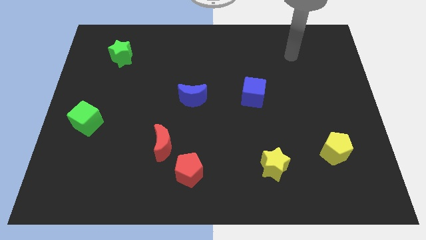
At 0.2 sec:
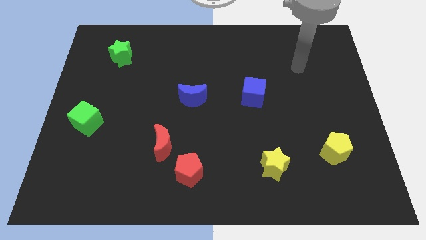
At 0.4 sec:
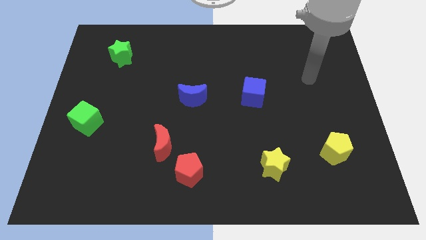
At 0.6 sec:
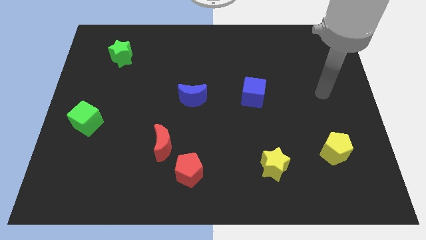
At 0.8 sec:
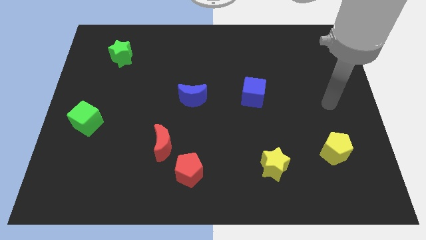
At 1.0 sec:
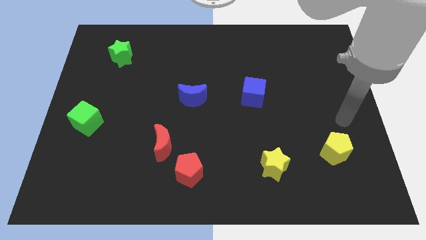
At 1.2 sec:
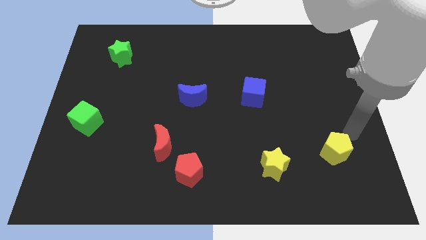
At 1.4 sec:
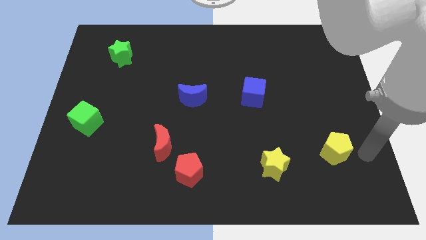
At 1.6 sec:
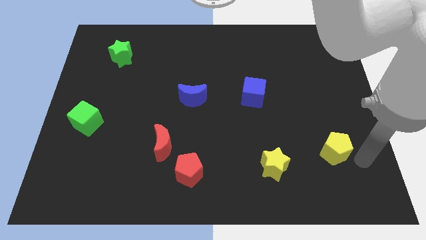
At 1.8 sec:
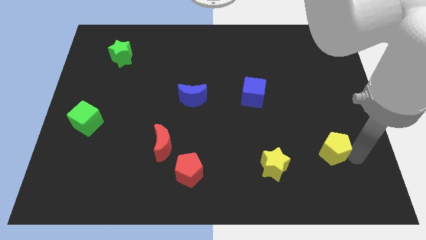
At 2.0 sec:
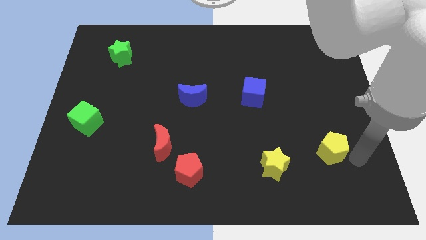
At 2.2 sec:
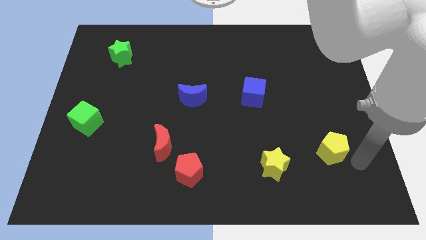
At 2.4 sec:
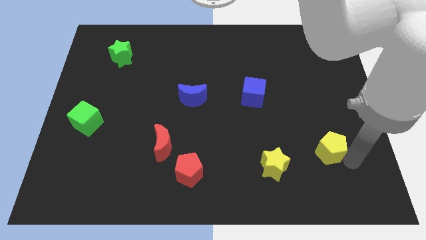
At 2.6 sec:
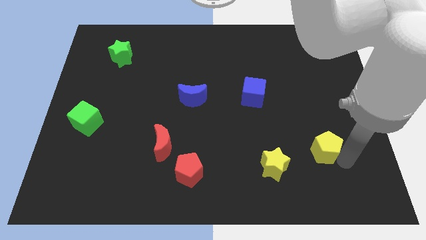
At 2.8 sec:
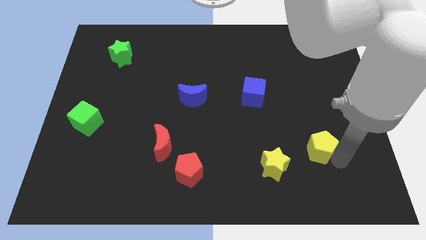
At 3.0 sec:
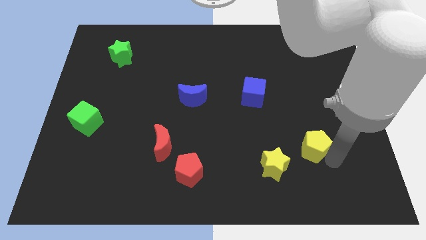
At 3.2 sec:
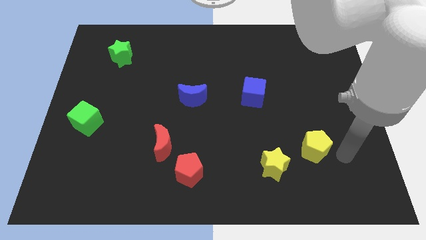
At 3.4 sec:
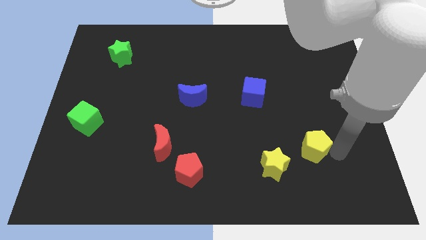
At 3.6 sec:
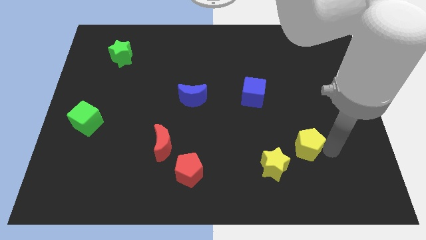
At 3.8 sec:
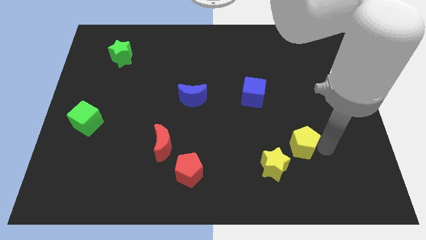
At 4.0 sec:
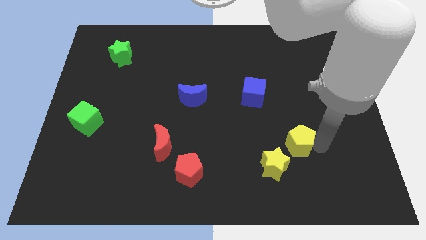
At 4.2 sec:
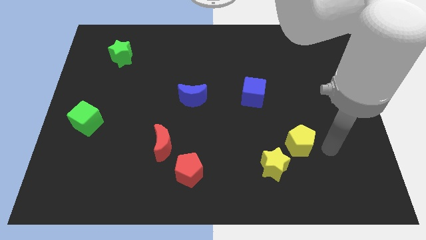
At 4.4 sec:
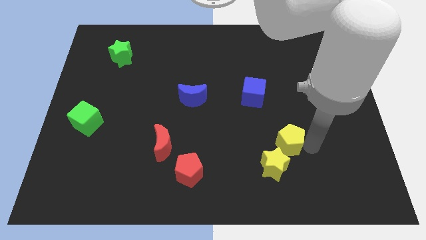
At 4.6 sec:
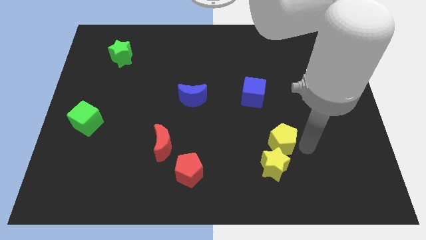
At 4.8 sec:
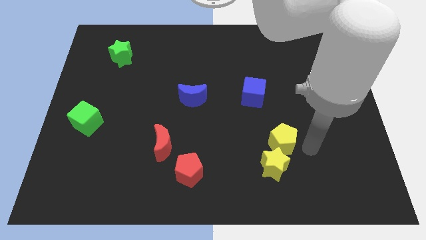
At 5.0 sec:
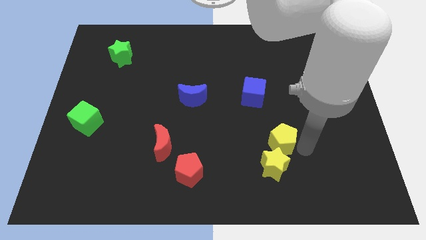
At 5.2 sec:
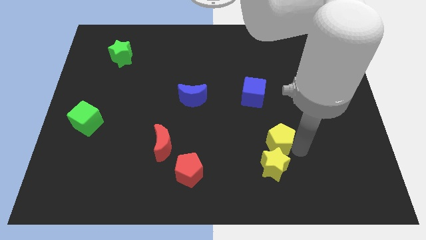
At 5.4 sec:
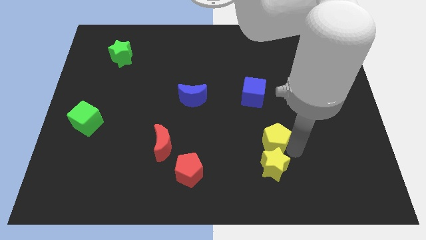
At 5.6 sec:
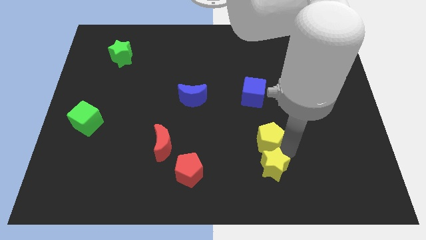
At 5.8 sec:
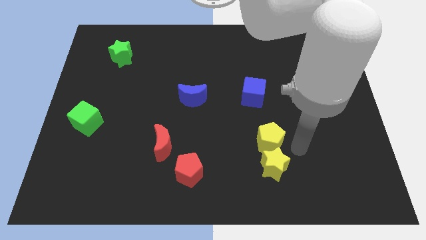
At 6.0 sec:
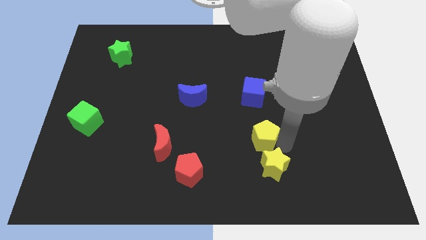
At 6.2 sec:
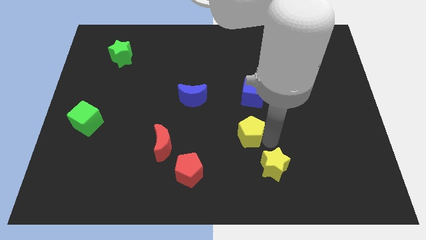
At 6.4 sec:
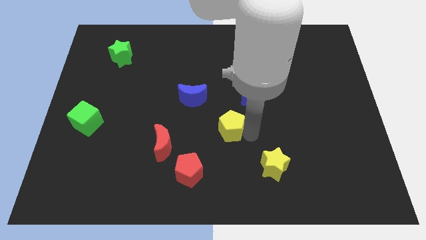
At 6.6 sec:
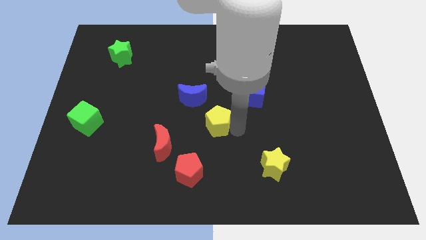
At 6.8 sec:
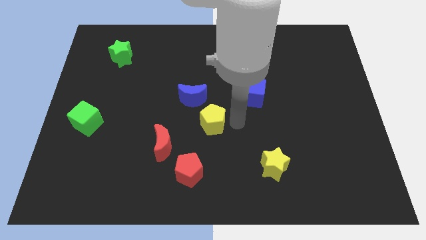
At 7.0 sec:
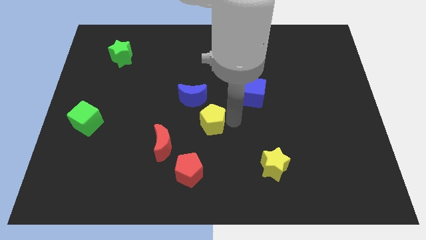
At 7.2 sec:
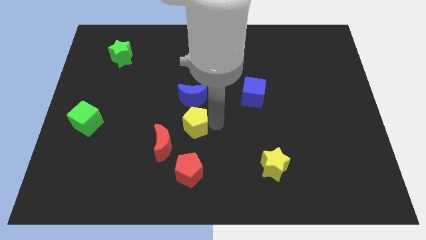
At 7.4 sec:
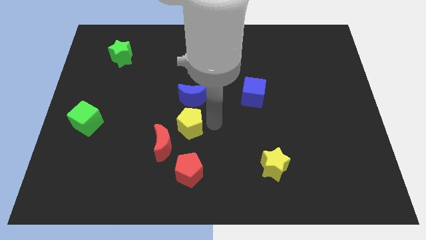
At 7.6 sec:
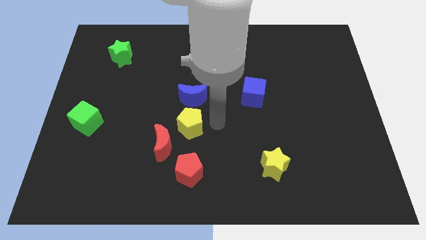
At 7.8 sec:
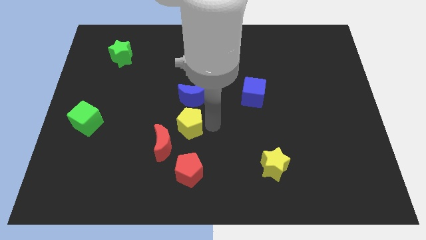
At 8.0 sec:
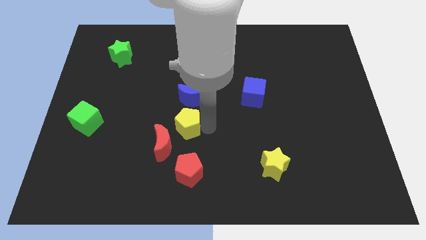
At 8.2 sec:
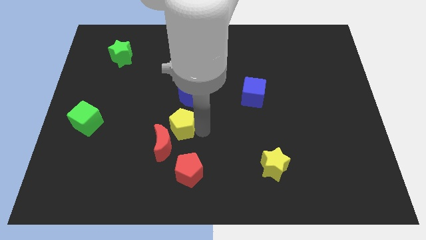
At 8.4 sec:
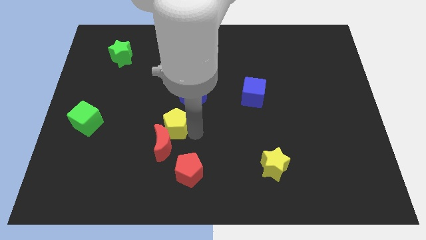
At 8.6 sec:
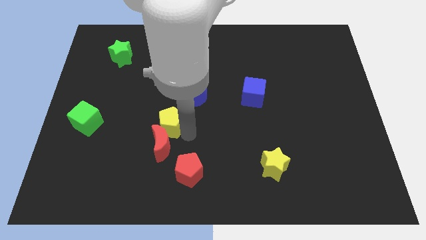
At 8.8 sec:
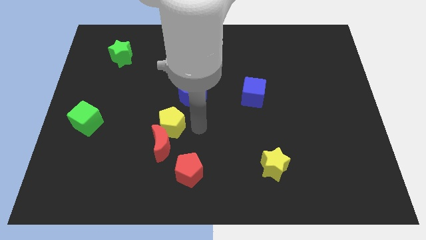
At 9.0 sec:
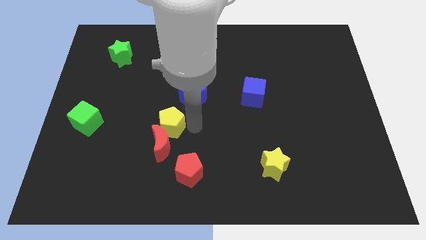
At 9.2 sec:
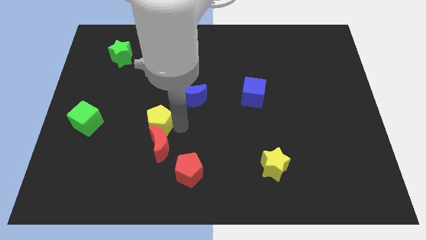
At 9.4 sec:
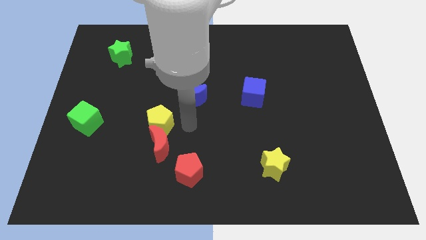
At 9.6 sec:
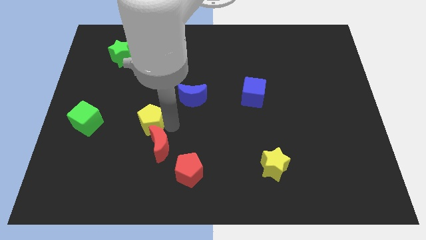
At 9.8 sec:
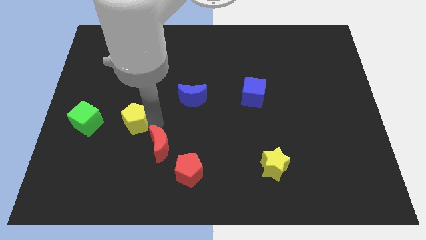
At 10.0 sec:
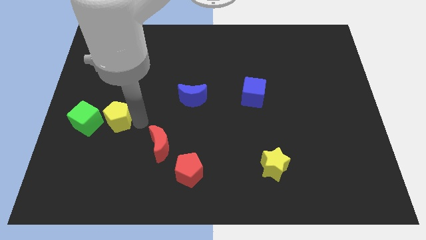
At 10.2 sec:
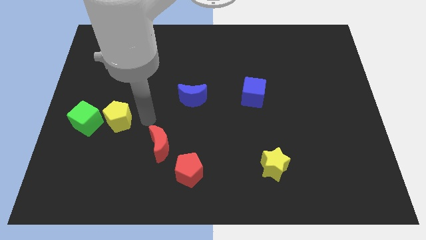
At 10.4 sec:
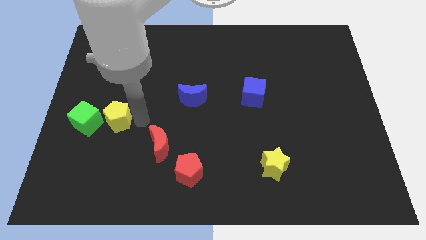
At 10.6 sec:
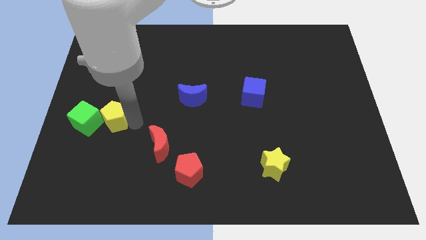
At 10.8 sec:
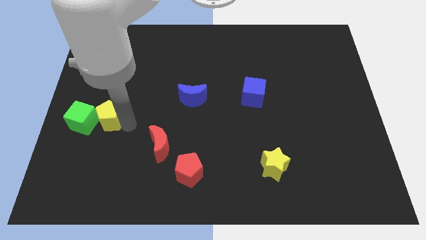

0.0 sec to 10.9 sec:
move the yellow pentagon next to the green cube

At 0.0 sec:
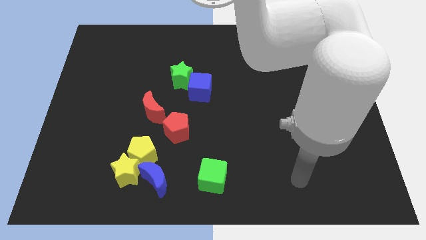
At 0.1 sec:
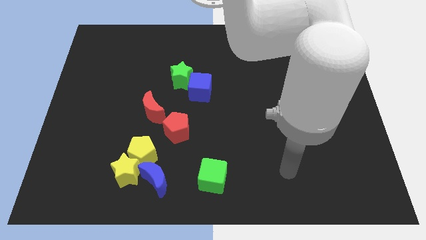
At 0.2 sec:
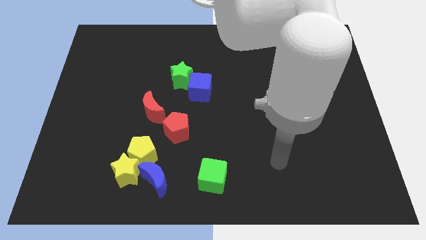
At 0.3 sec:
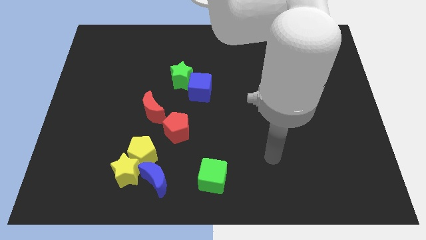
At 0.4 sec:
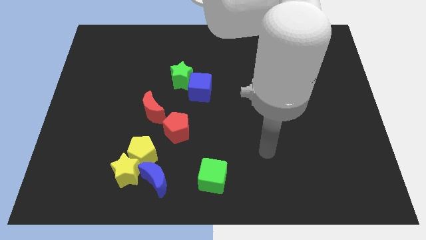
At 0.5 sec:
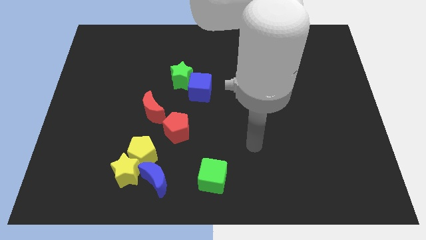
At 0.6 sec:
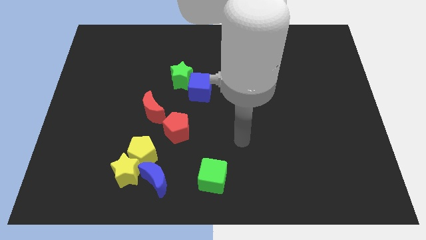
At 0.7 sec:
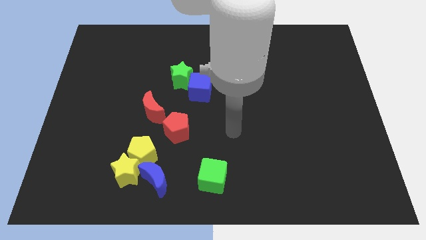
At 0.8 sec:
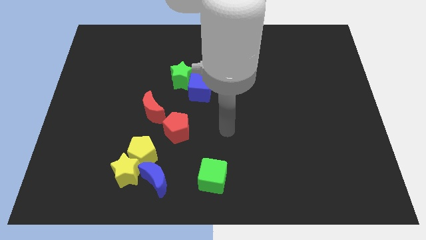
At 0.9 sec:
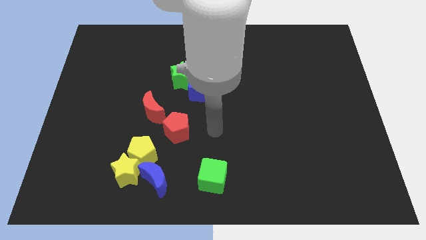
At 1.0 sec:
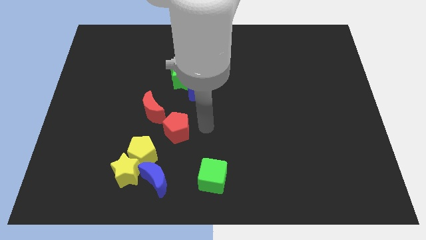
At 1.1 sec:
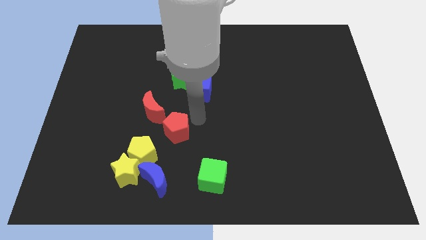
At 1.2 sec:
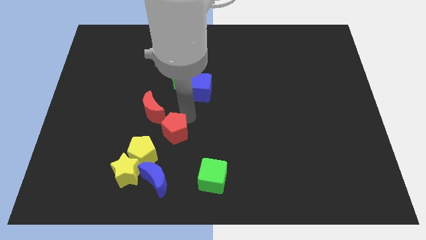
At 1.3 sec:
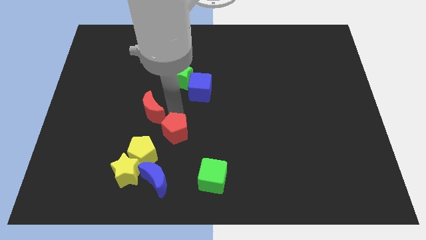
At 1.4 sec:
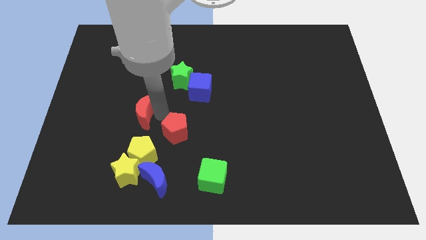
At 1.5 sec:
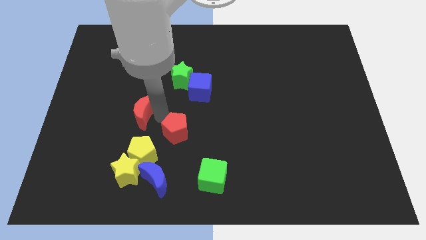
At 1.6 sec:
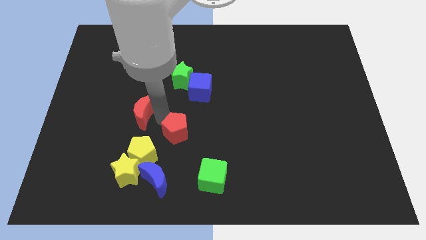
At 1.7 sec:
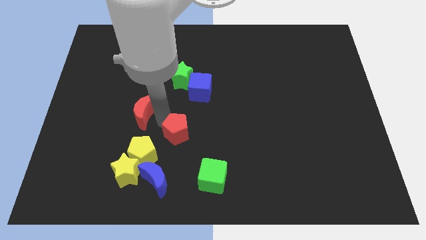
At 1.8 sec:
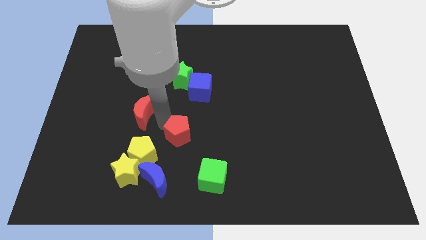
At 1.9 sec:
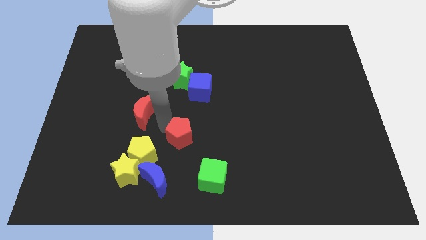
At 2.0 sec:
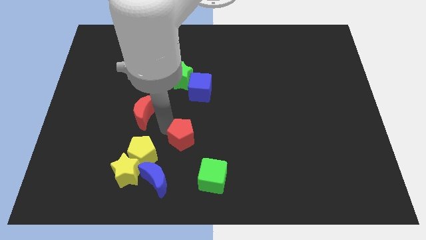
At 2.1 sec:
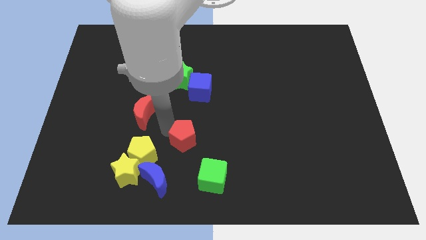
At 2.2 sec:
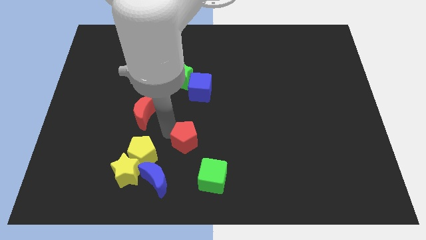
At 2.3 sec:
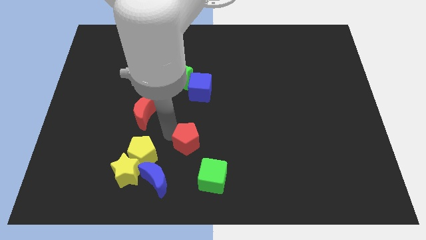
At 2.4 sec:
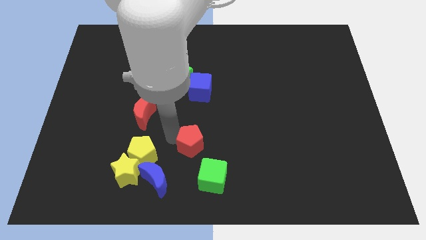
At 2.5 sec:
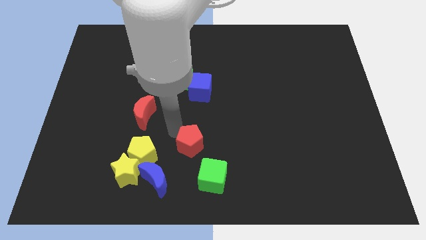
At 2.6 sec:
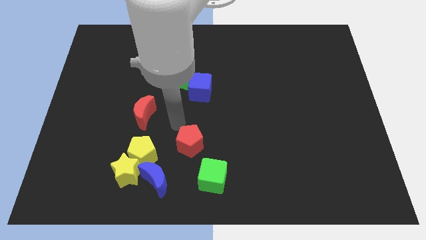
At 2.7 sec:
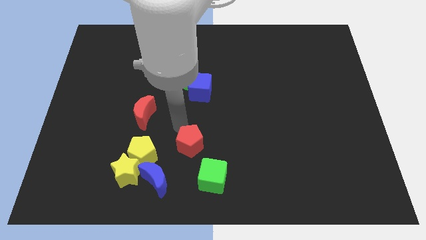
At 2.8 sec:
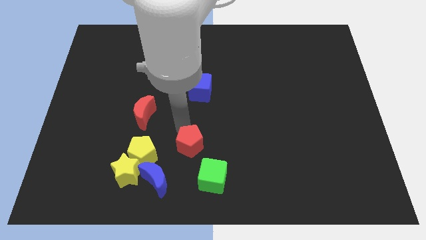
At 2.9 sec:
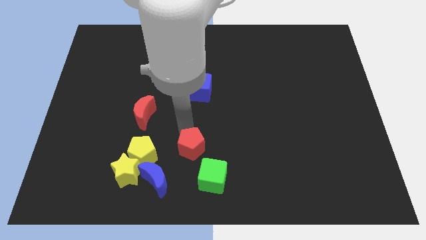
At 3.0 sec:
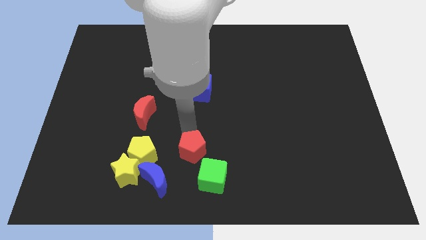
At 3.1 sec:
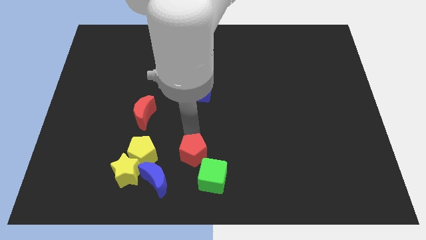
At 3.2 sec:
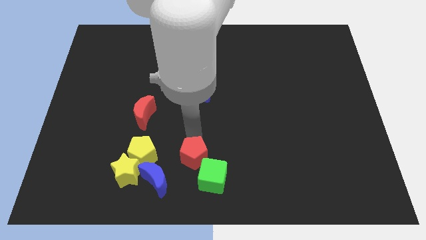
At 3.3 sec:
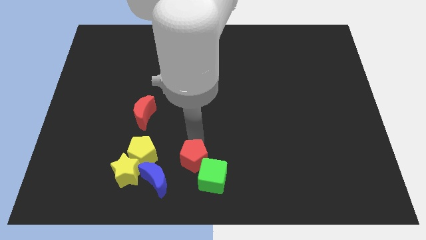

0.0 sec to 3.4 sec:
slide the red pentagon close to the green cube
